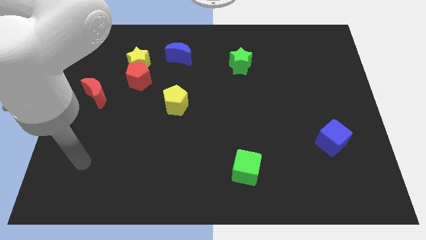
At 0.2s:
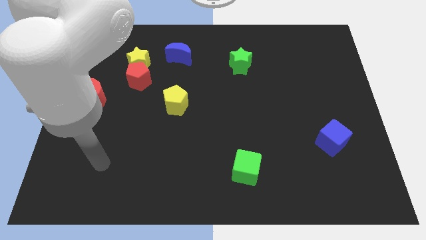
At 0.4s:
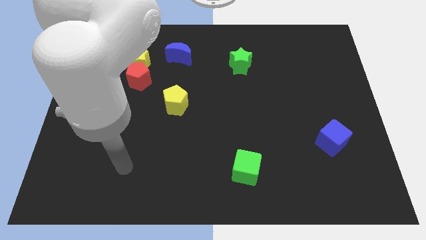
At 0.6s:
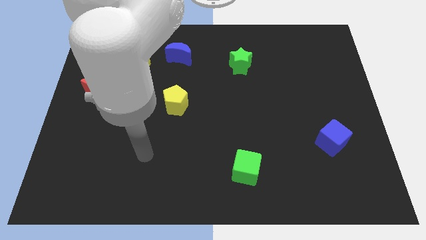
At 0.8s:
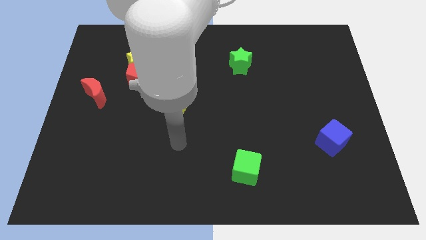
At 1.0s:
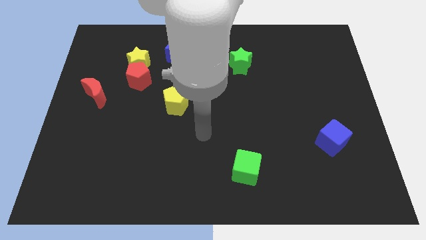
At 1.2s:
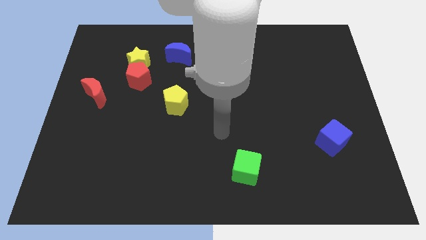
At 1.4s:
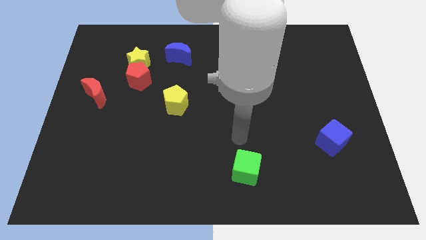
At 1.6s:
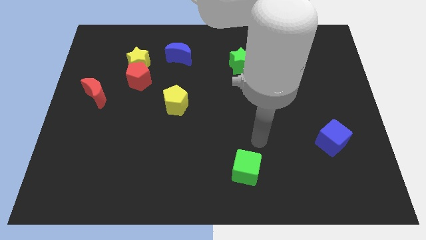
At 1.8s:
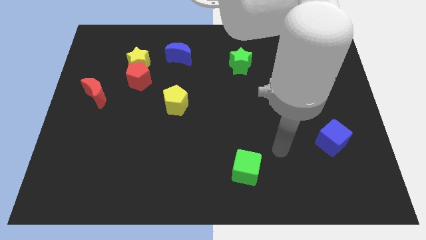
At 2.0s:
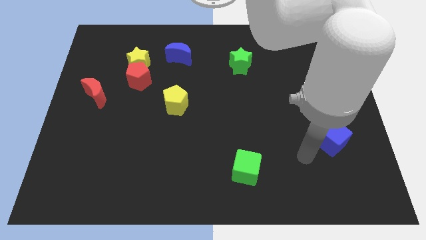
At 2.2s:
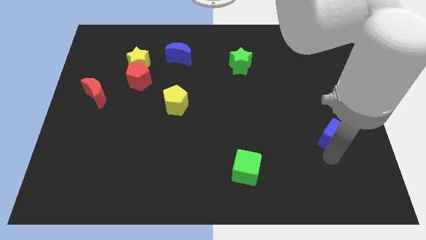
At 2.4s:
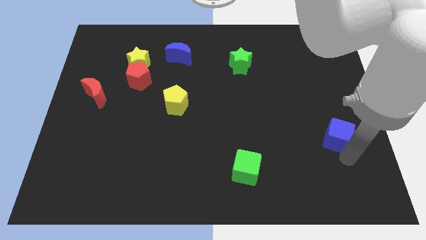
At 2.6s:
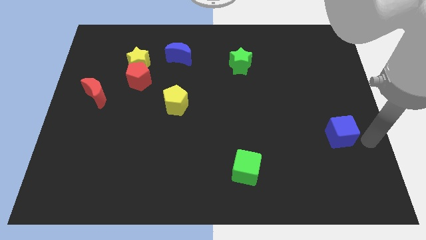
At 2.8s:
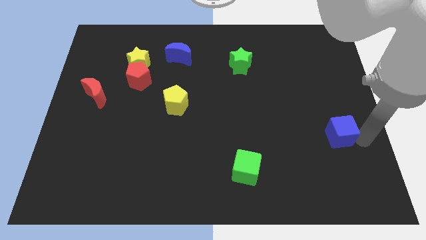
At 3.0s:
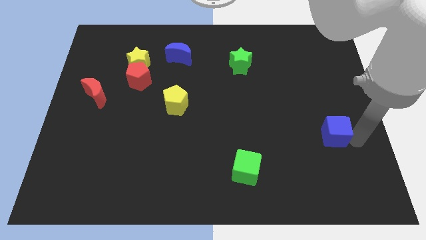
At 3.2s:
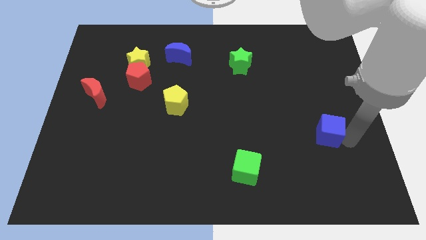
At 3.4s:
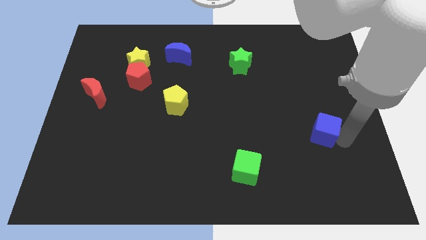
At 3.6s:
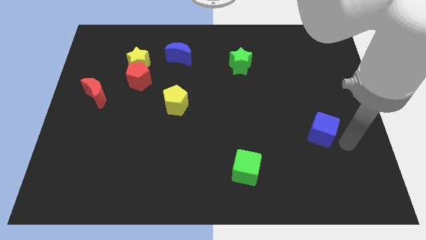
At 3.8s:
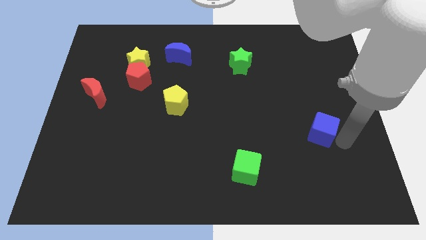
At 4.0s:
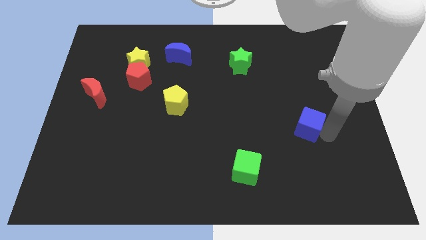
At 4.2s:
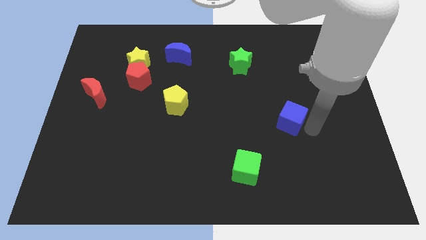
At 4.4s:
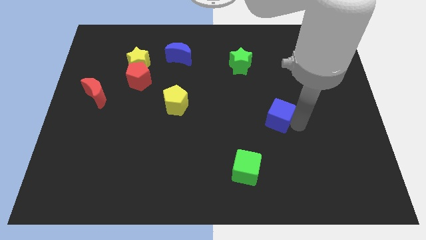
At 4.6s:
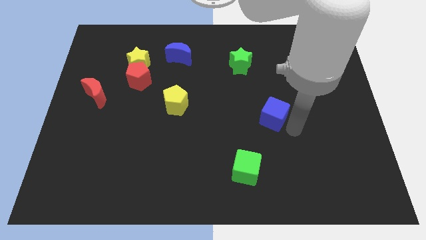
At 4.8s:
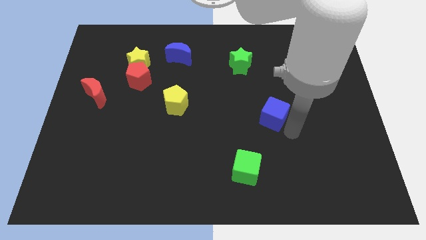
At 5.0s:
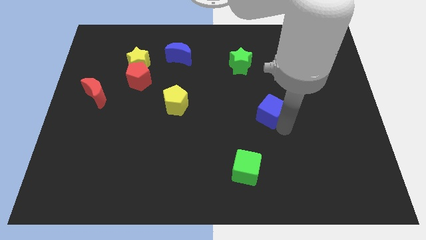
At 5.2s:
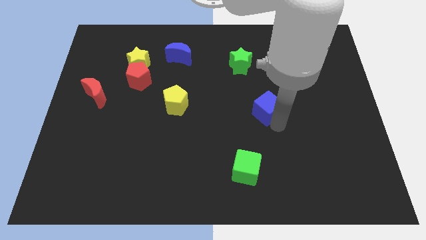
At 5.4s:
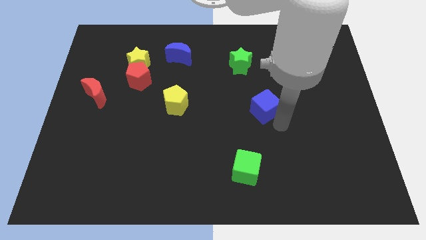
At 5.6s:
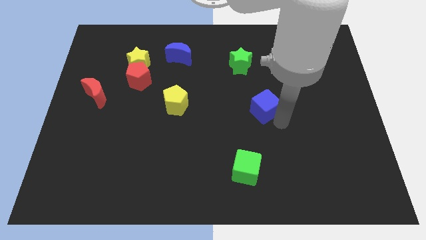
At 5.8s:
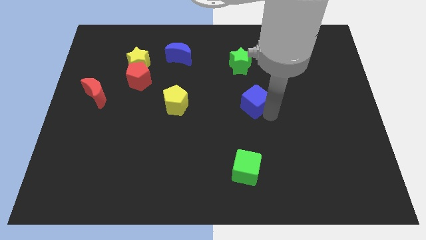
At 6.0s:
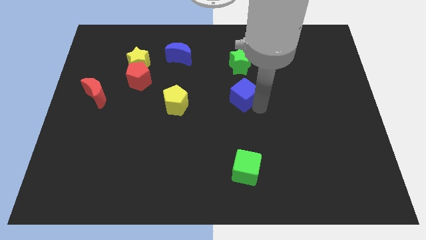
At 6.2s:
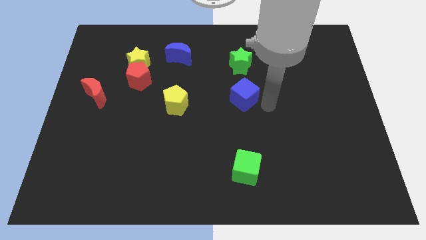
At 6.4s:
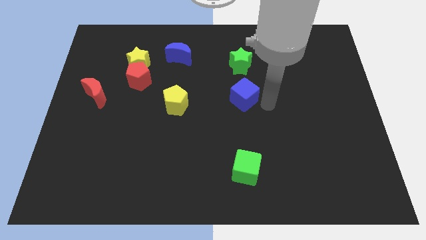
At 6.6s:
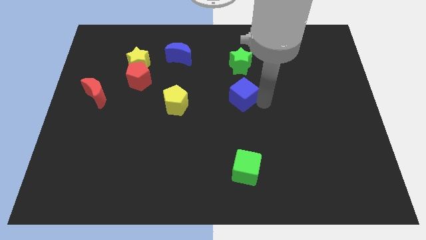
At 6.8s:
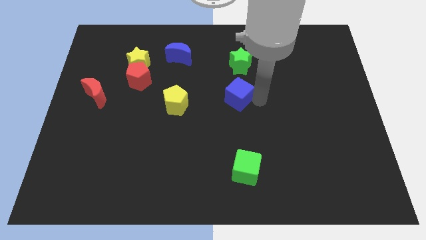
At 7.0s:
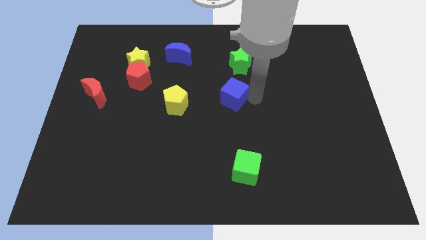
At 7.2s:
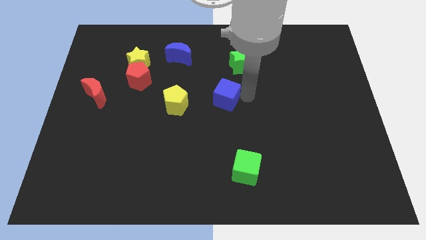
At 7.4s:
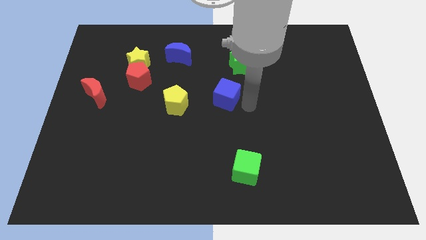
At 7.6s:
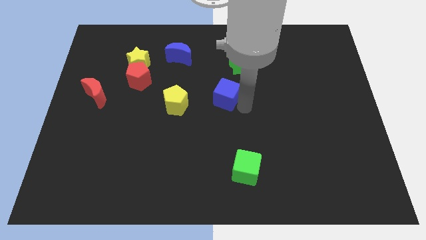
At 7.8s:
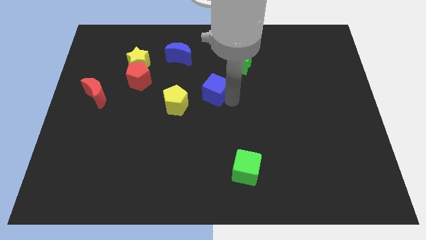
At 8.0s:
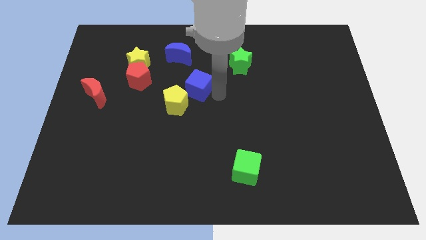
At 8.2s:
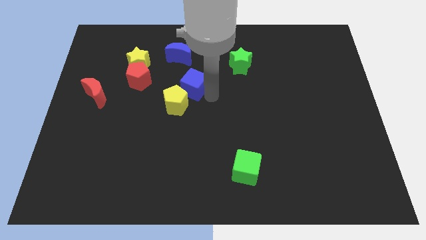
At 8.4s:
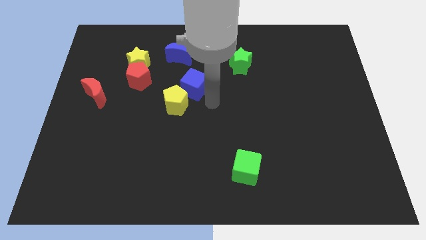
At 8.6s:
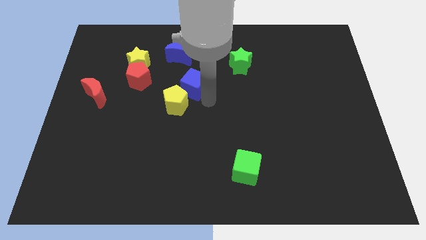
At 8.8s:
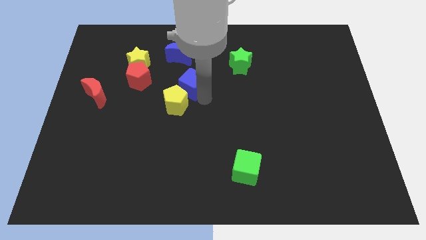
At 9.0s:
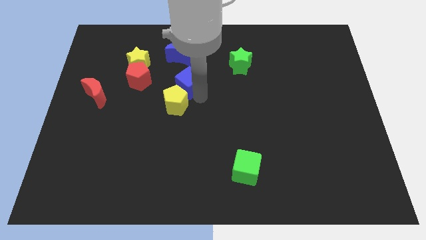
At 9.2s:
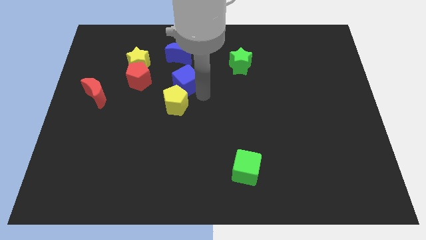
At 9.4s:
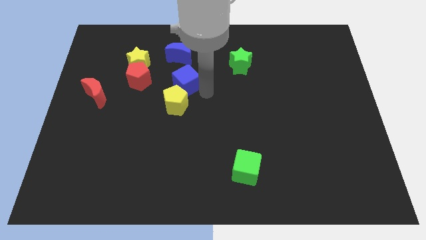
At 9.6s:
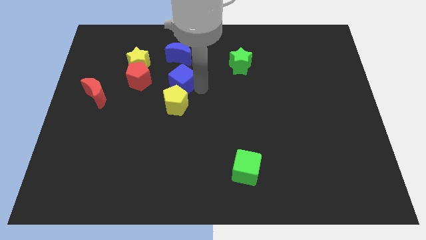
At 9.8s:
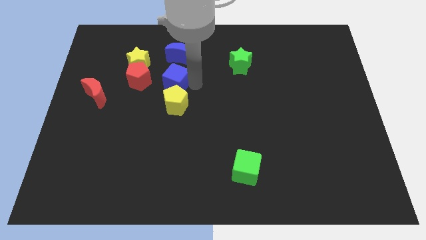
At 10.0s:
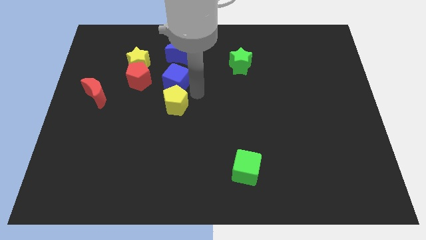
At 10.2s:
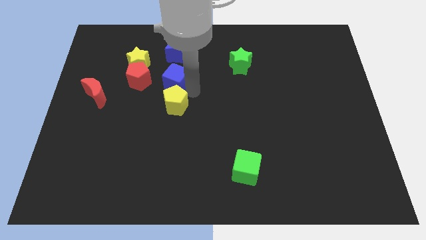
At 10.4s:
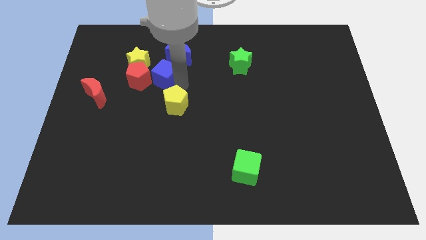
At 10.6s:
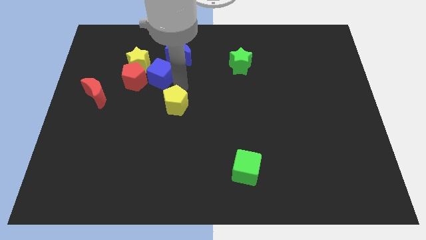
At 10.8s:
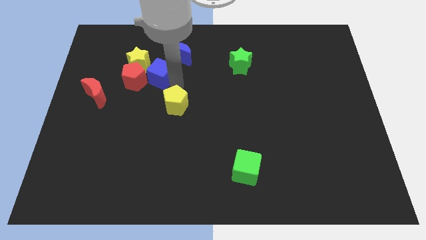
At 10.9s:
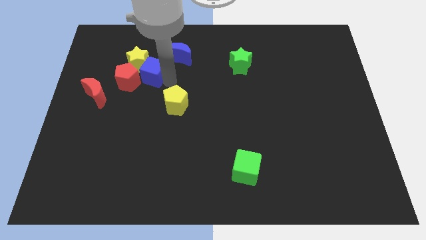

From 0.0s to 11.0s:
push the blue cube next to the yellow star

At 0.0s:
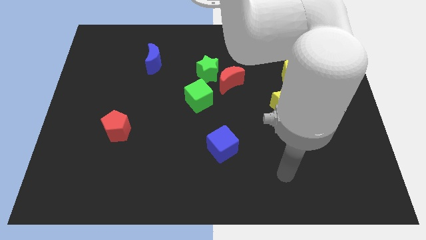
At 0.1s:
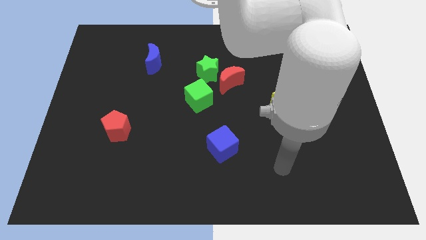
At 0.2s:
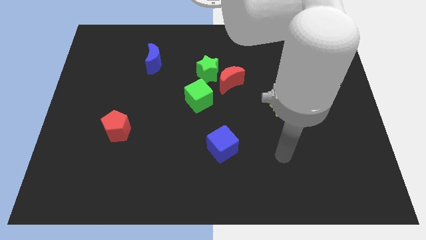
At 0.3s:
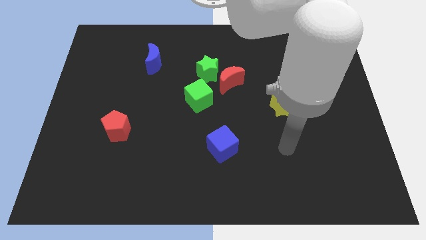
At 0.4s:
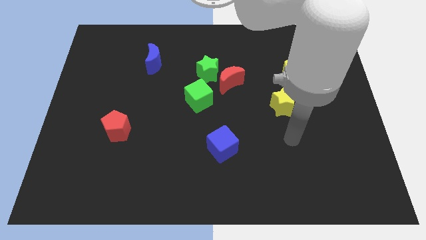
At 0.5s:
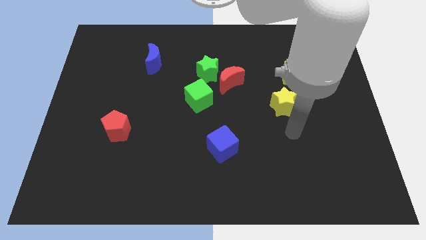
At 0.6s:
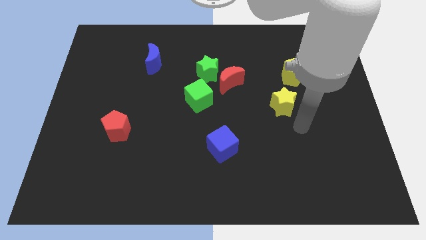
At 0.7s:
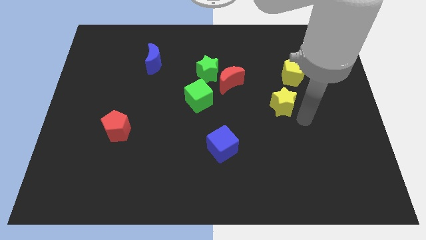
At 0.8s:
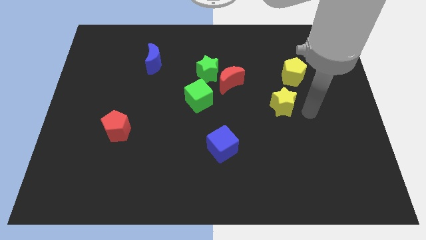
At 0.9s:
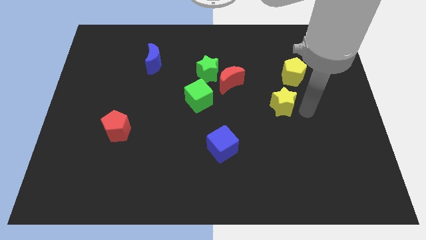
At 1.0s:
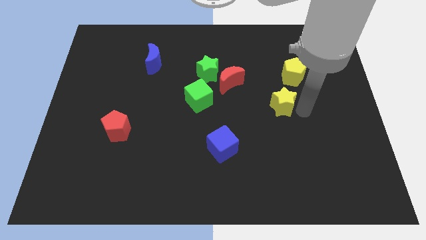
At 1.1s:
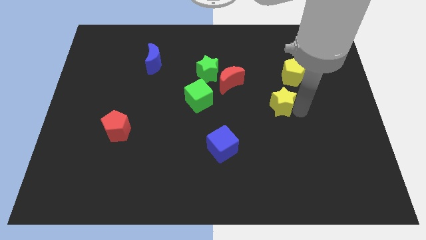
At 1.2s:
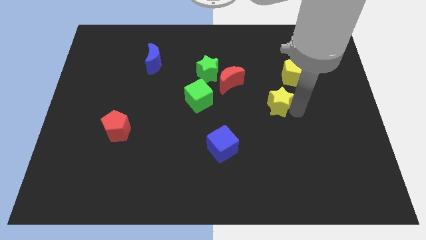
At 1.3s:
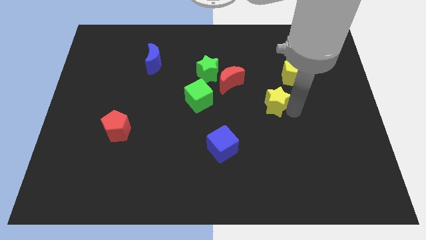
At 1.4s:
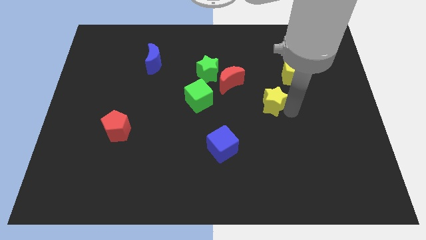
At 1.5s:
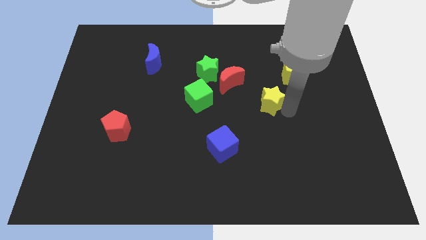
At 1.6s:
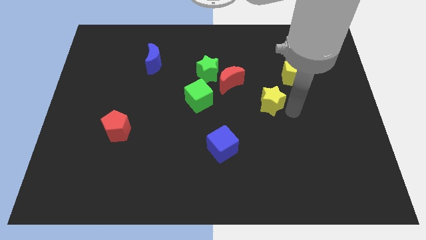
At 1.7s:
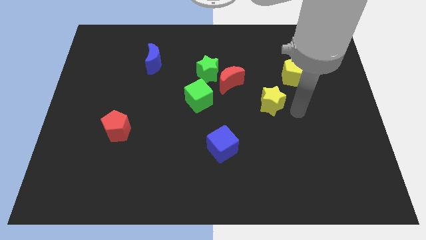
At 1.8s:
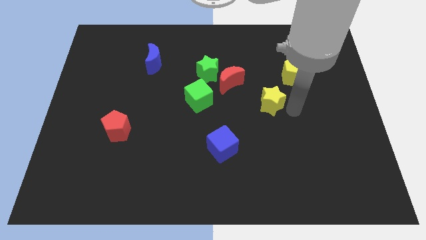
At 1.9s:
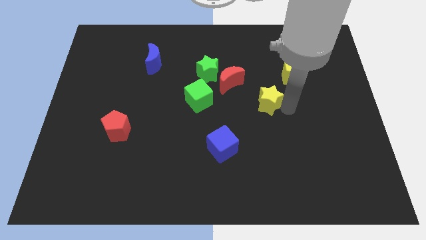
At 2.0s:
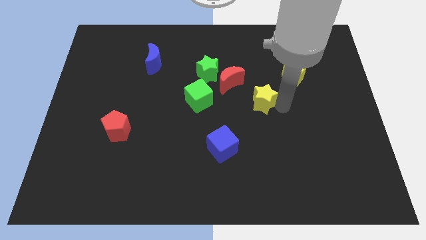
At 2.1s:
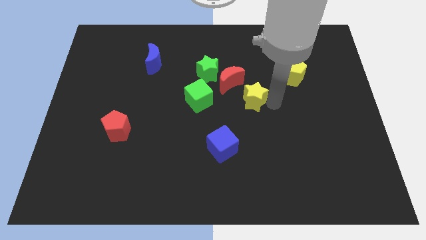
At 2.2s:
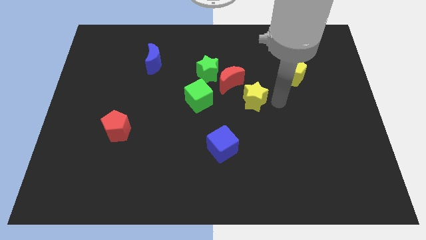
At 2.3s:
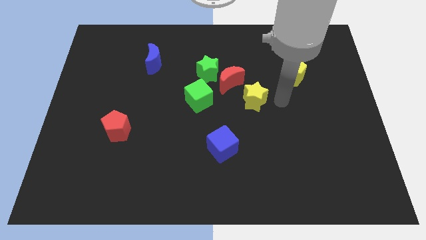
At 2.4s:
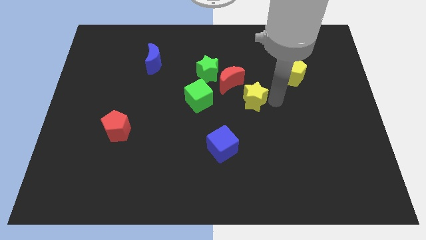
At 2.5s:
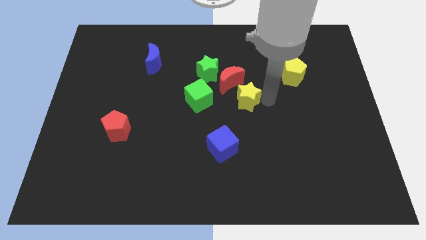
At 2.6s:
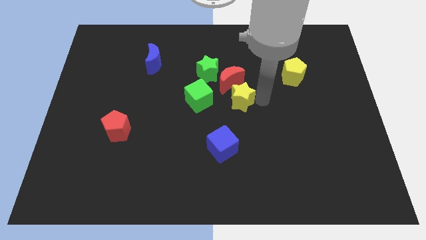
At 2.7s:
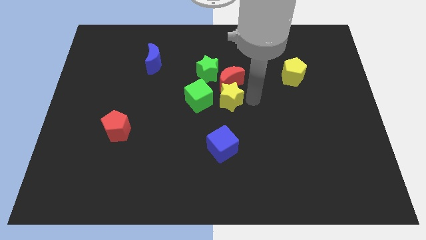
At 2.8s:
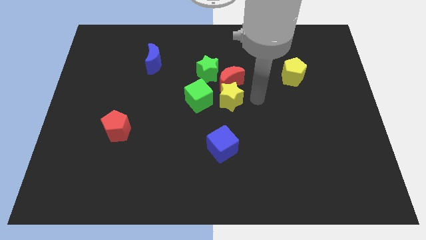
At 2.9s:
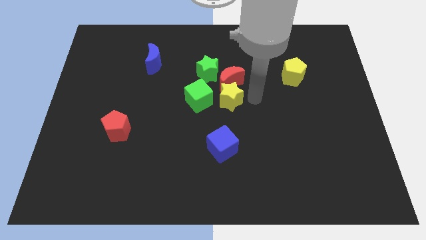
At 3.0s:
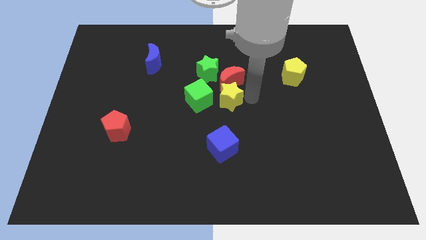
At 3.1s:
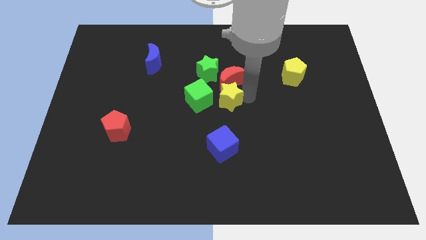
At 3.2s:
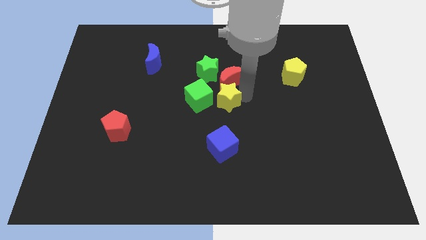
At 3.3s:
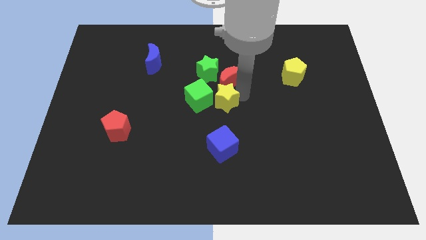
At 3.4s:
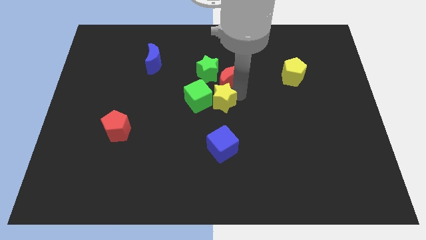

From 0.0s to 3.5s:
slide the yellow star towards the green cube
